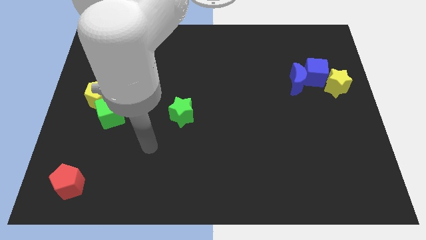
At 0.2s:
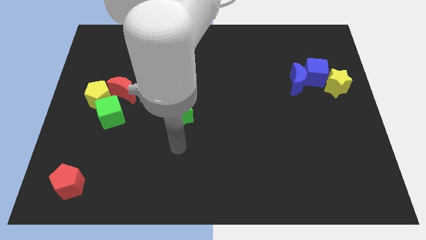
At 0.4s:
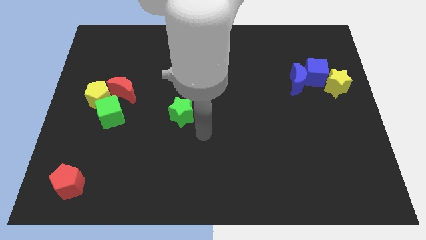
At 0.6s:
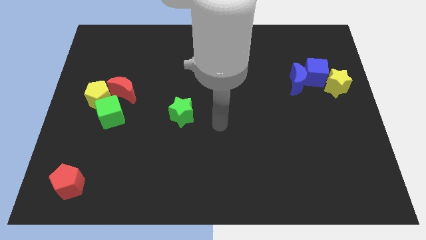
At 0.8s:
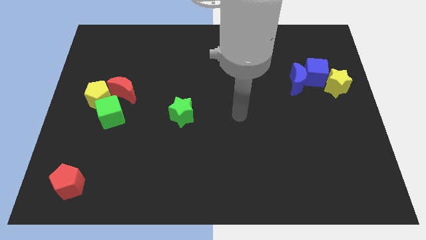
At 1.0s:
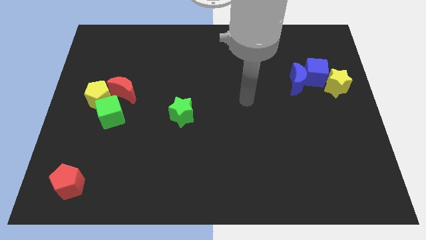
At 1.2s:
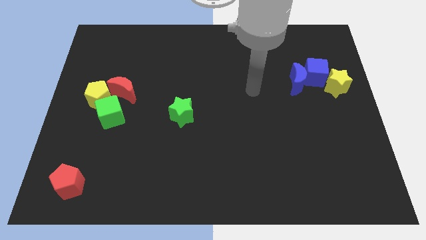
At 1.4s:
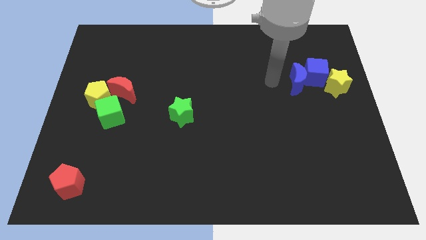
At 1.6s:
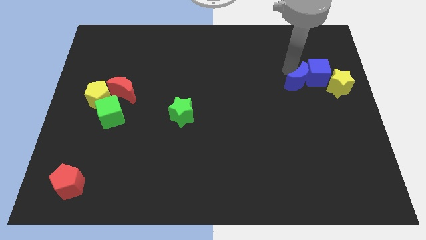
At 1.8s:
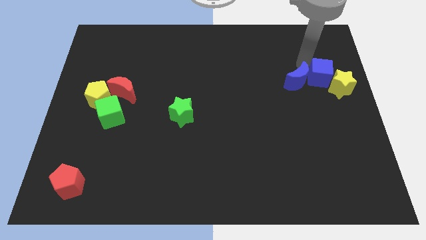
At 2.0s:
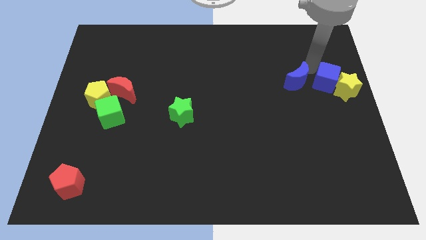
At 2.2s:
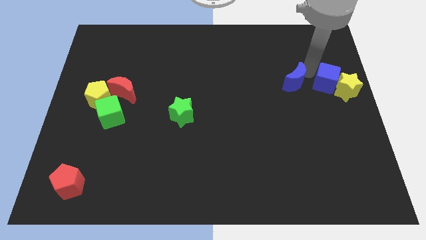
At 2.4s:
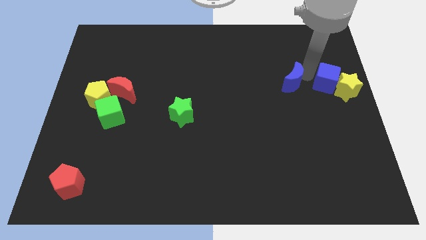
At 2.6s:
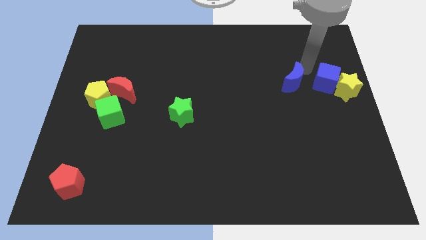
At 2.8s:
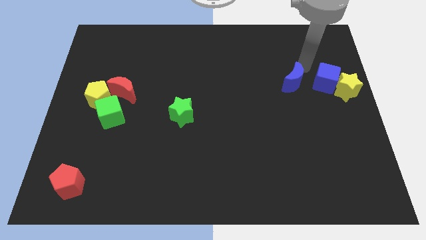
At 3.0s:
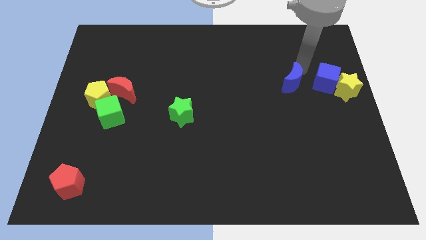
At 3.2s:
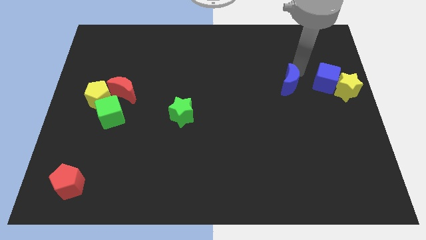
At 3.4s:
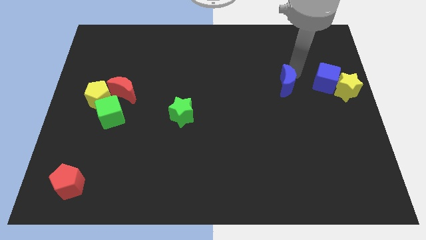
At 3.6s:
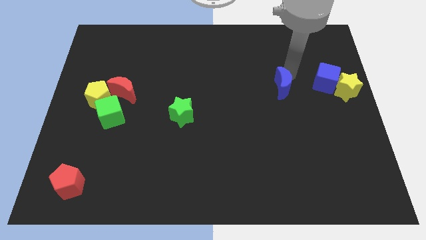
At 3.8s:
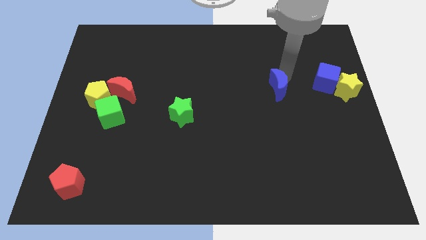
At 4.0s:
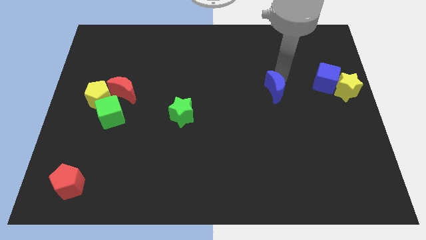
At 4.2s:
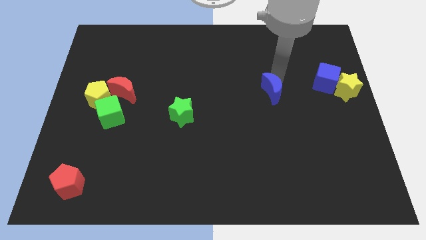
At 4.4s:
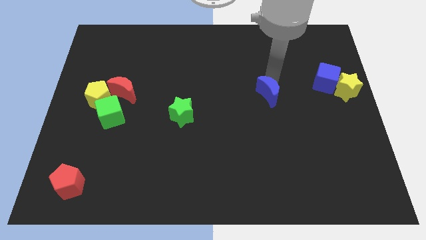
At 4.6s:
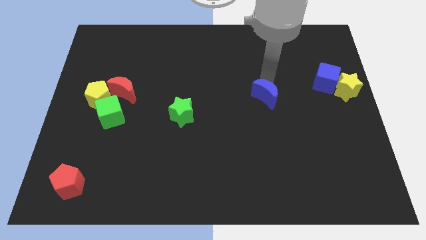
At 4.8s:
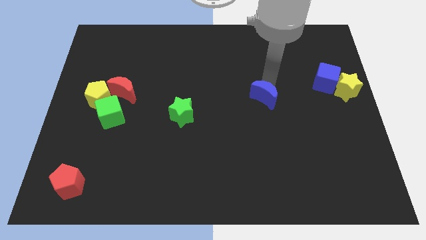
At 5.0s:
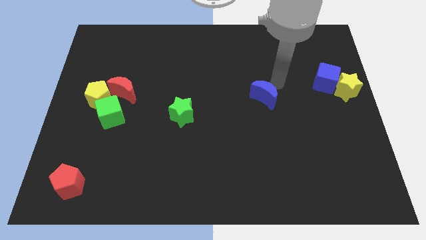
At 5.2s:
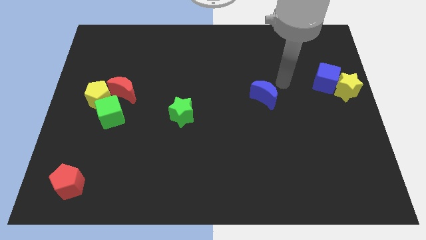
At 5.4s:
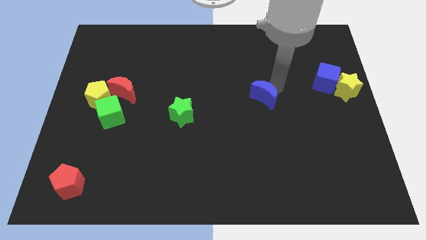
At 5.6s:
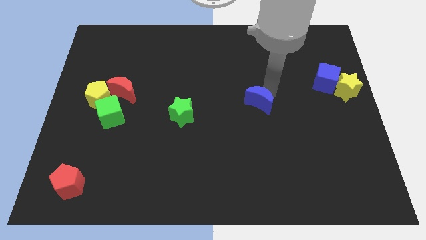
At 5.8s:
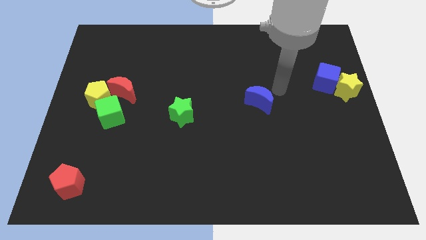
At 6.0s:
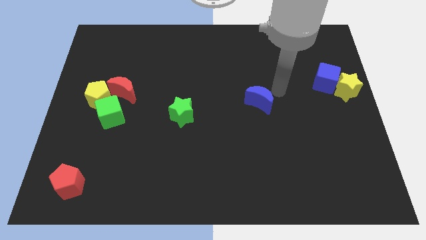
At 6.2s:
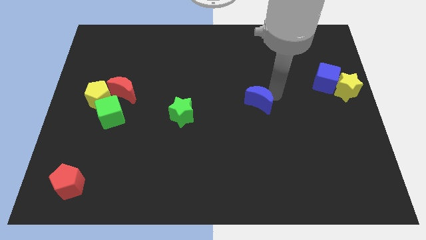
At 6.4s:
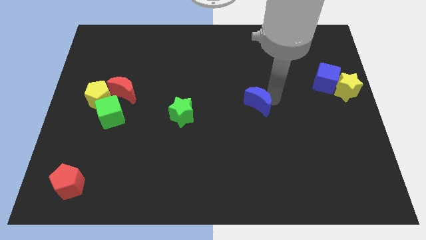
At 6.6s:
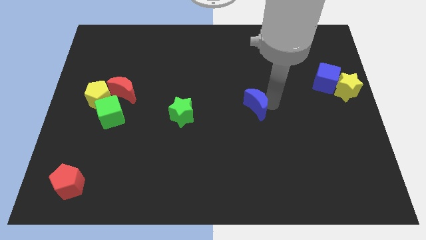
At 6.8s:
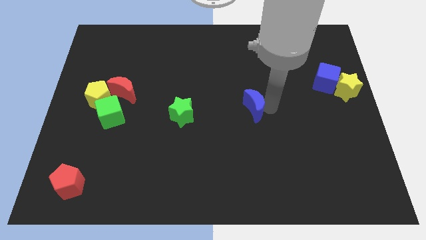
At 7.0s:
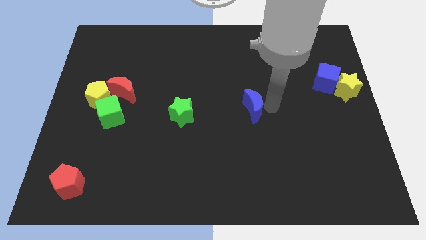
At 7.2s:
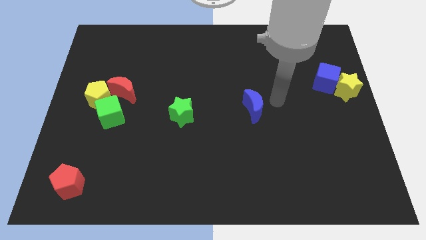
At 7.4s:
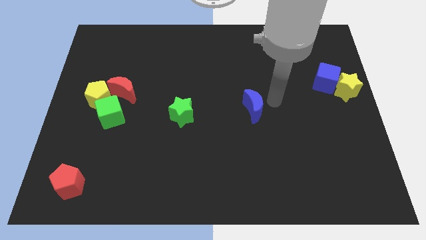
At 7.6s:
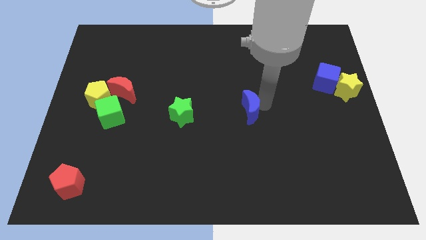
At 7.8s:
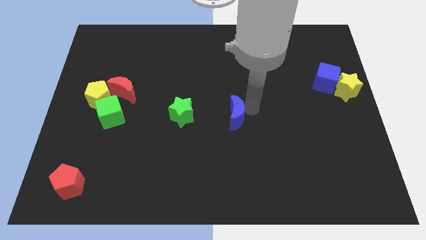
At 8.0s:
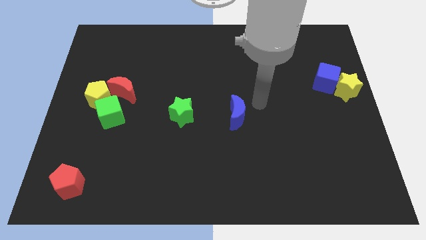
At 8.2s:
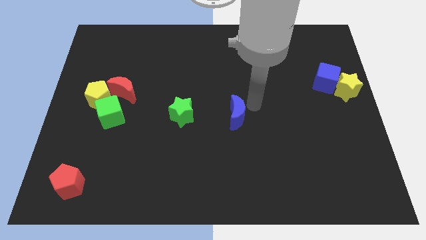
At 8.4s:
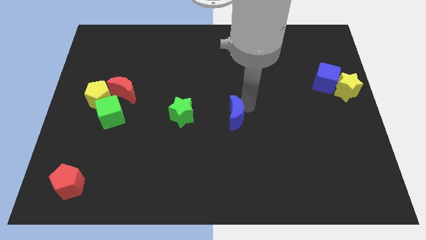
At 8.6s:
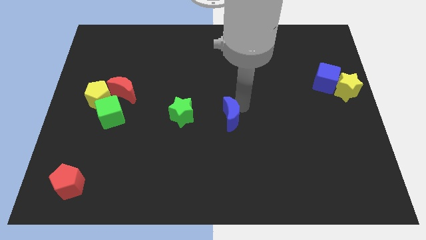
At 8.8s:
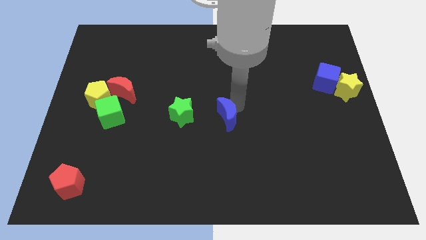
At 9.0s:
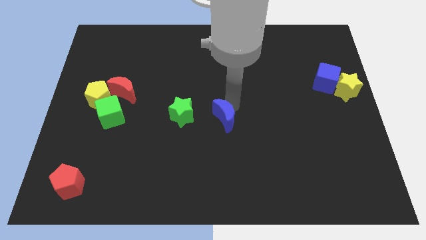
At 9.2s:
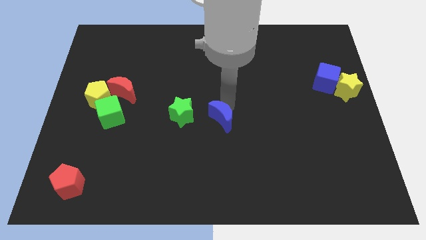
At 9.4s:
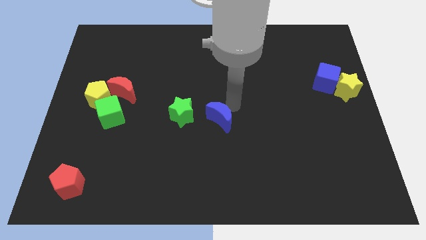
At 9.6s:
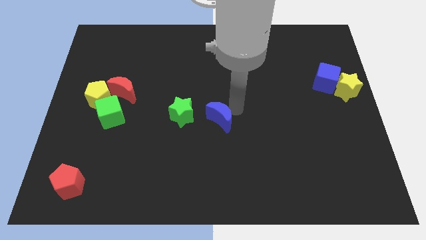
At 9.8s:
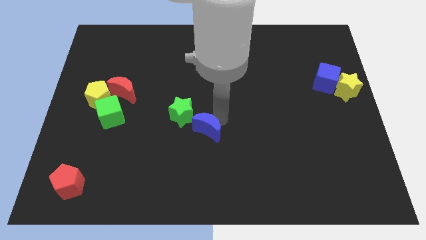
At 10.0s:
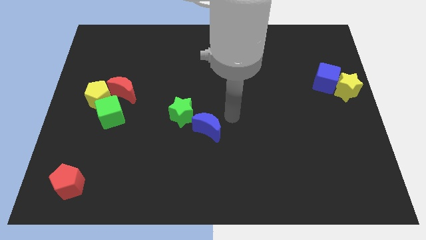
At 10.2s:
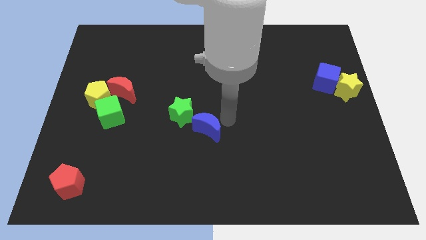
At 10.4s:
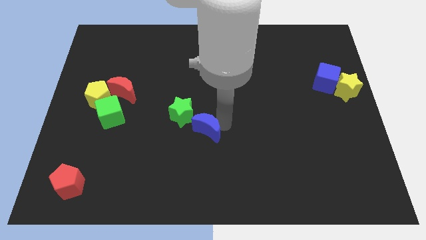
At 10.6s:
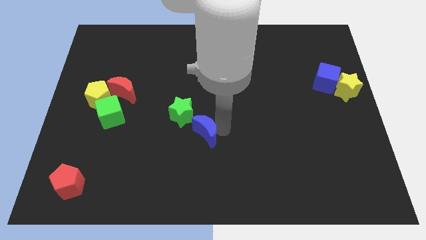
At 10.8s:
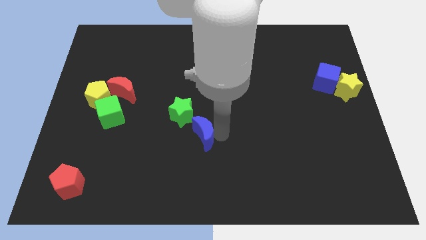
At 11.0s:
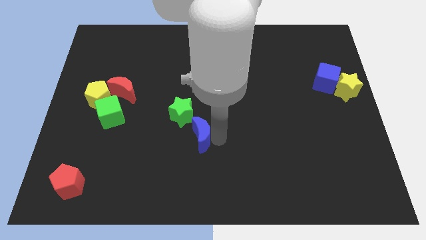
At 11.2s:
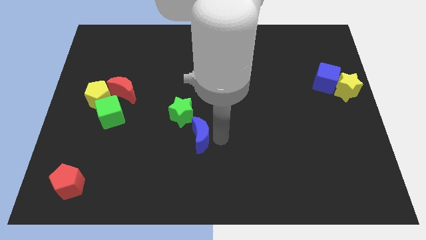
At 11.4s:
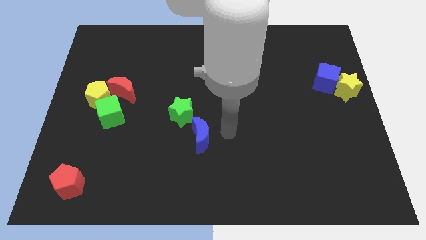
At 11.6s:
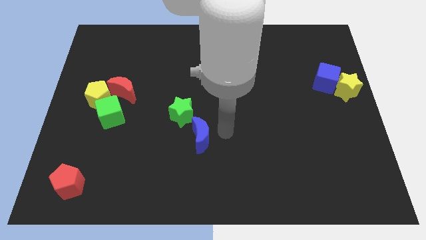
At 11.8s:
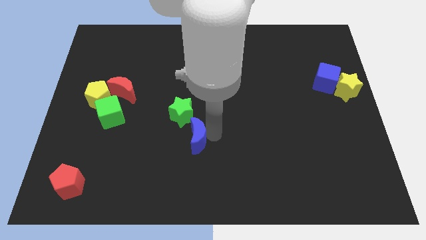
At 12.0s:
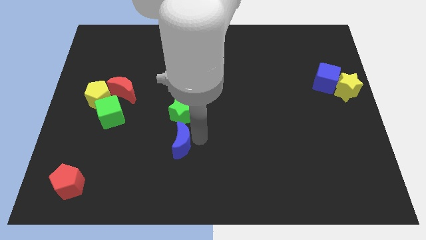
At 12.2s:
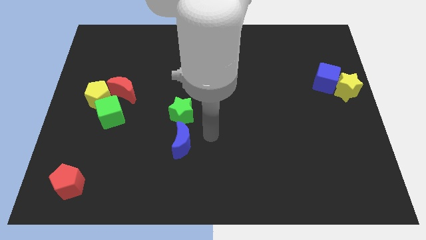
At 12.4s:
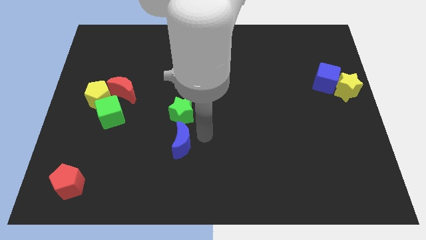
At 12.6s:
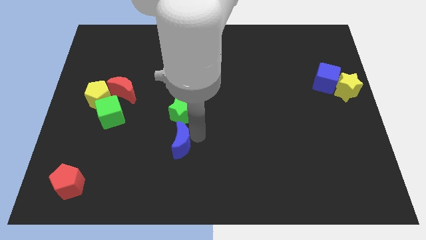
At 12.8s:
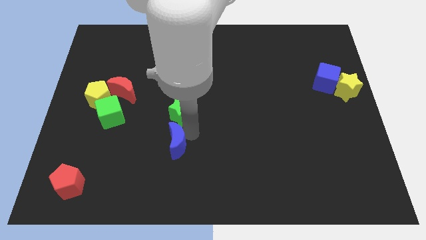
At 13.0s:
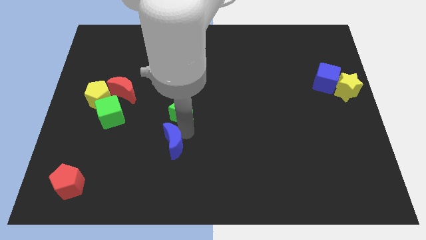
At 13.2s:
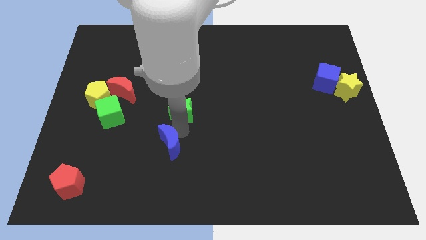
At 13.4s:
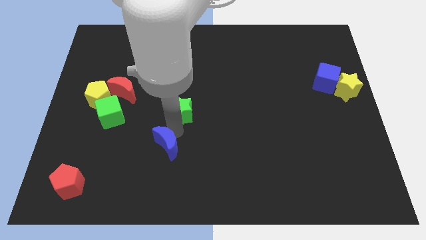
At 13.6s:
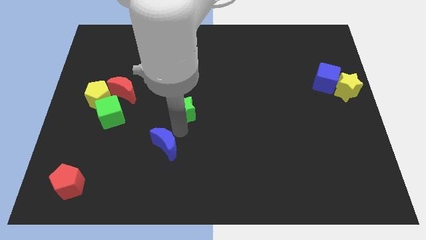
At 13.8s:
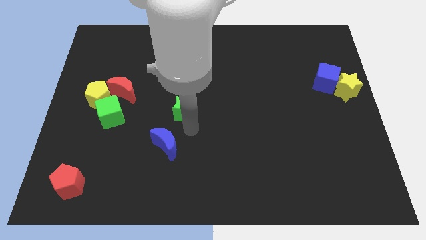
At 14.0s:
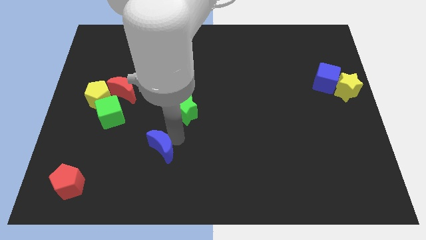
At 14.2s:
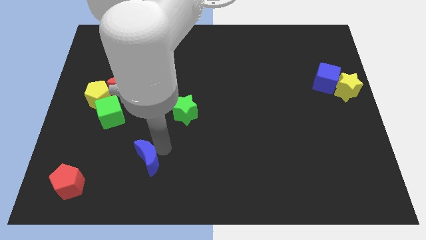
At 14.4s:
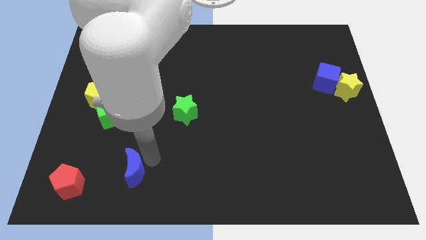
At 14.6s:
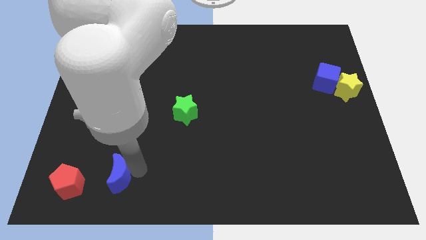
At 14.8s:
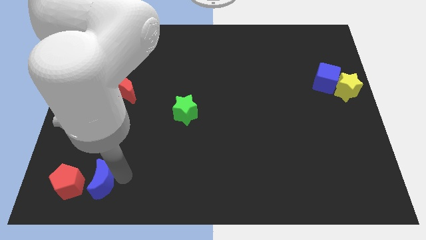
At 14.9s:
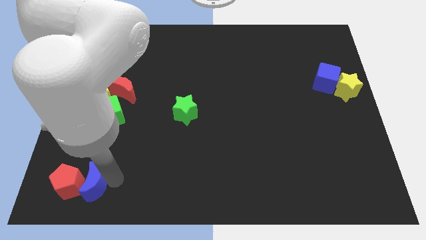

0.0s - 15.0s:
push the blue moon to the red pentagon

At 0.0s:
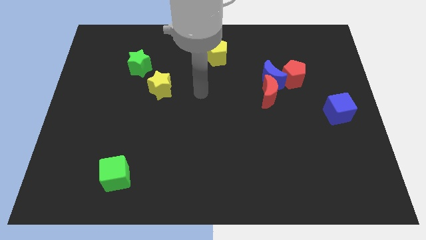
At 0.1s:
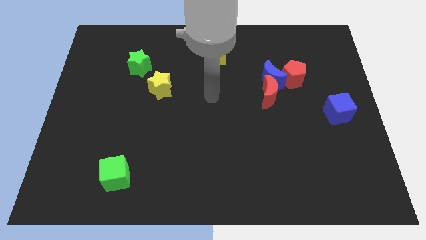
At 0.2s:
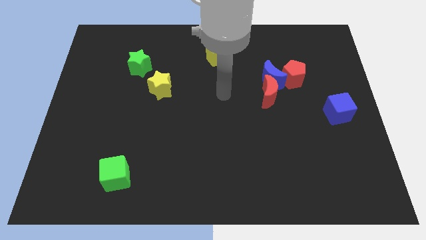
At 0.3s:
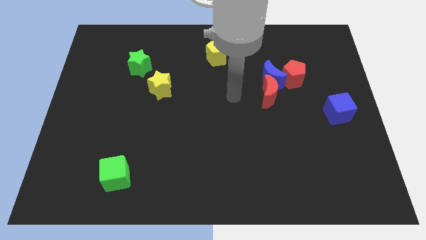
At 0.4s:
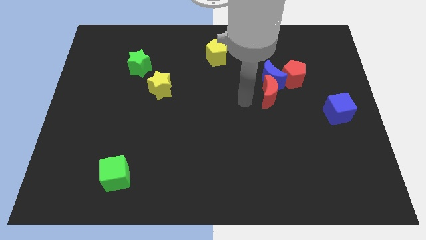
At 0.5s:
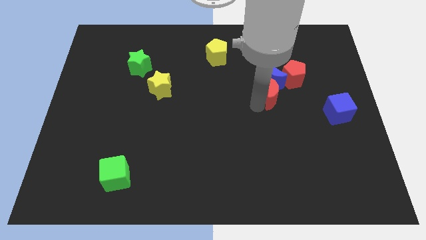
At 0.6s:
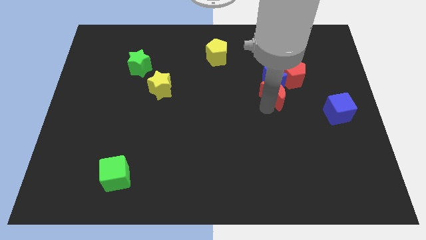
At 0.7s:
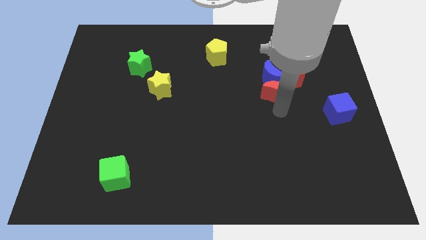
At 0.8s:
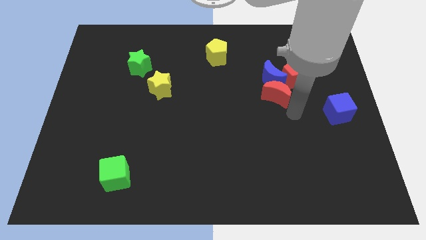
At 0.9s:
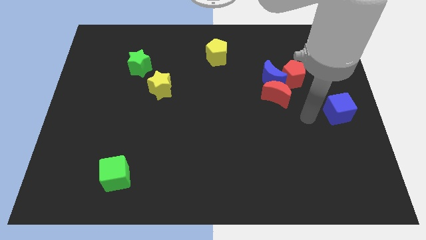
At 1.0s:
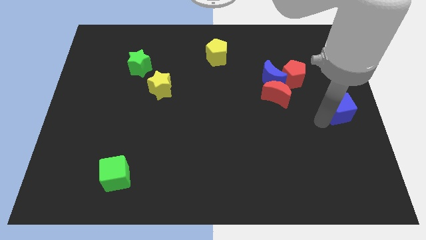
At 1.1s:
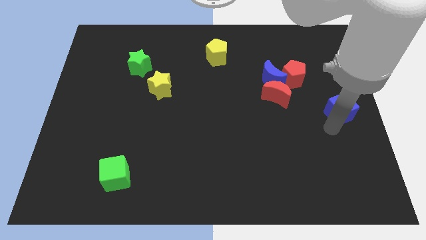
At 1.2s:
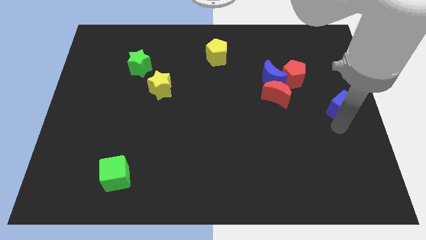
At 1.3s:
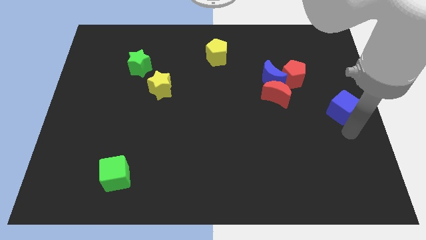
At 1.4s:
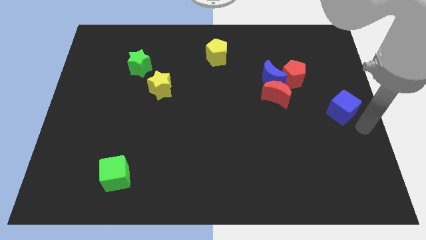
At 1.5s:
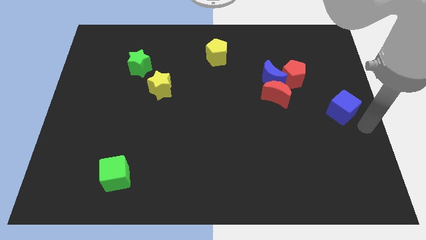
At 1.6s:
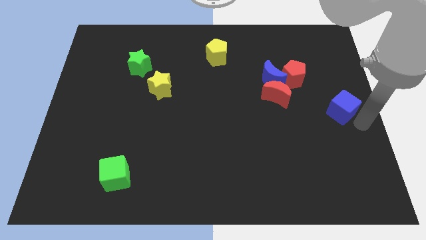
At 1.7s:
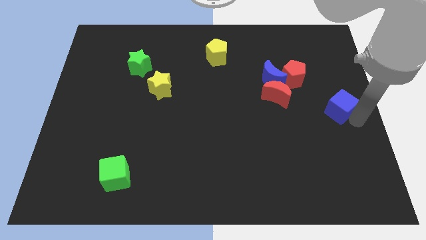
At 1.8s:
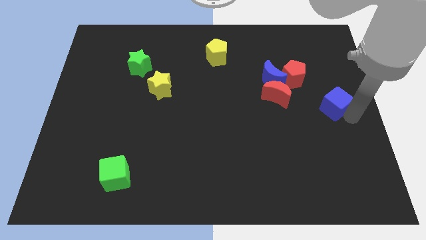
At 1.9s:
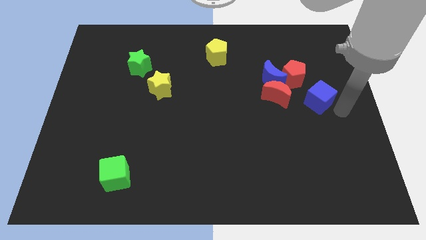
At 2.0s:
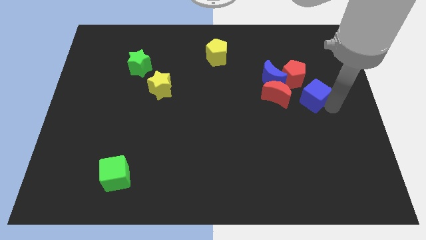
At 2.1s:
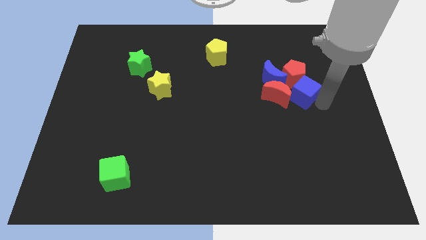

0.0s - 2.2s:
slide the blue cube to the red pentagon
